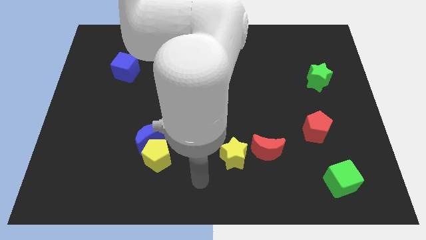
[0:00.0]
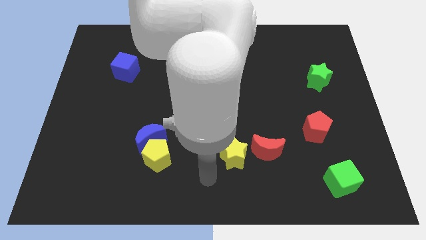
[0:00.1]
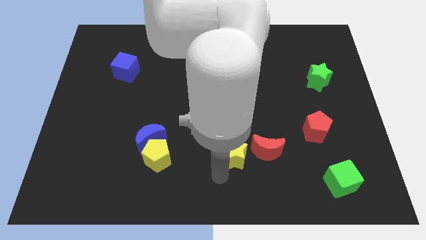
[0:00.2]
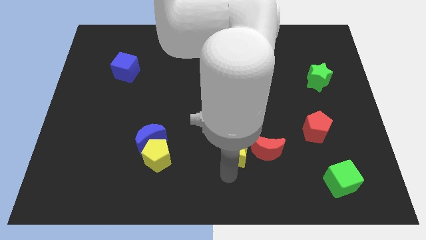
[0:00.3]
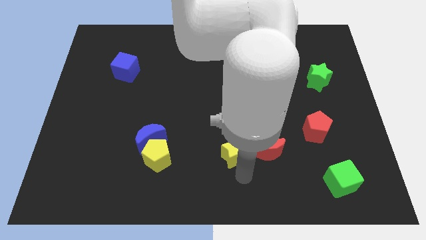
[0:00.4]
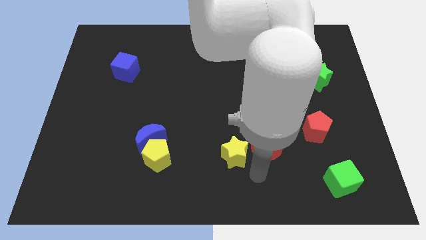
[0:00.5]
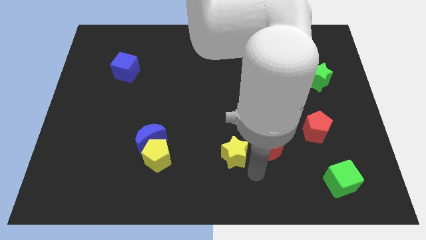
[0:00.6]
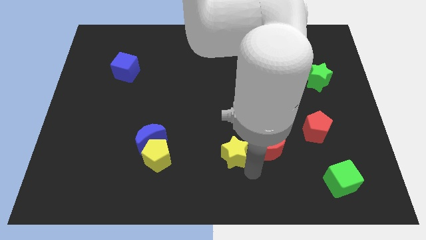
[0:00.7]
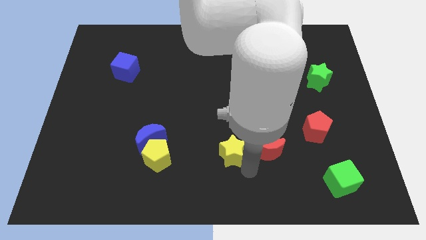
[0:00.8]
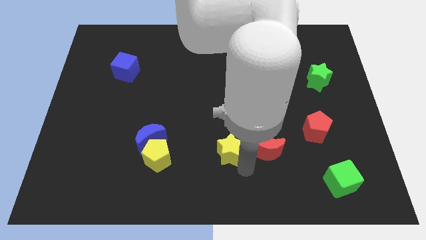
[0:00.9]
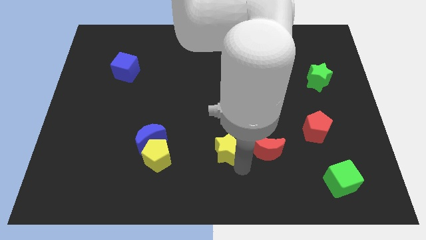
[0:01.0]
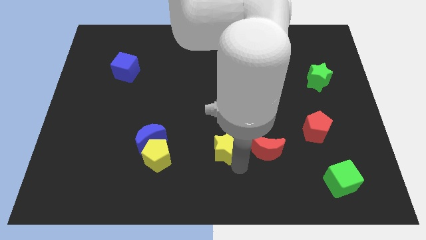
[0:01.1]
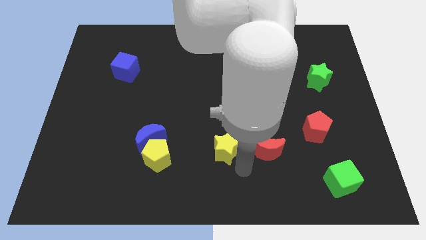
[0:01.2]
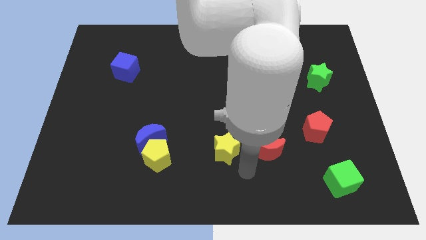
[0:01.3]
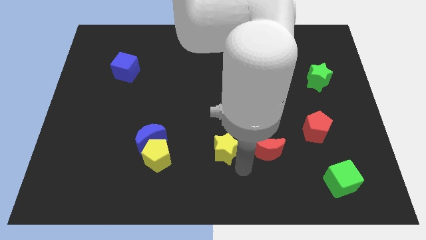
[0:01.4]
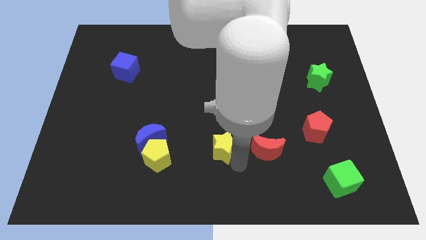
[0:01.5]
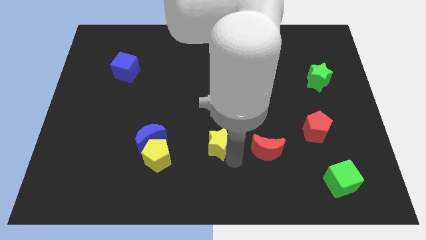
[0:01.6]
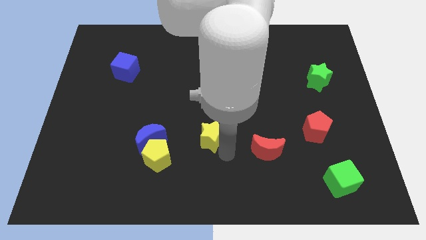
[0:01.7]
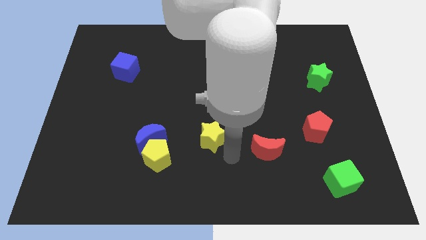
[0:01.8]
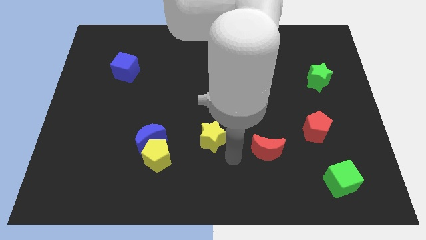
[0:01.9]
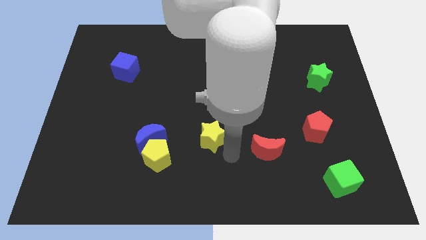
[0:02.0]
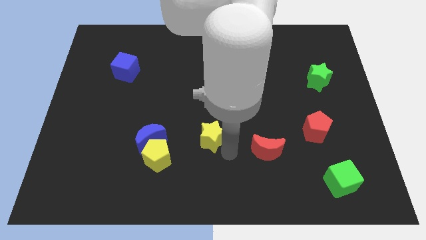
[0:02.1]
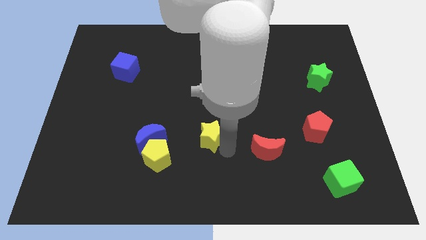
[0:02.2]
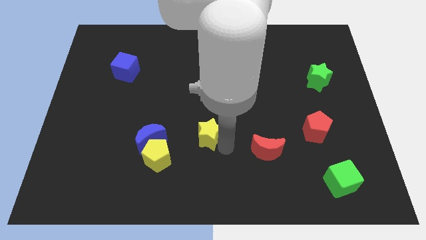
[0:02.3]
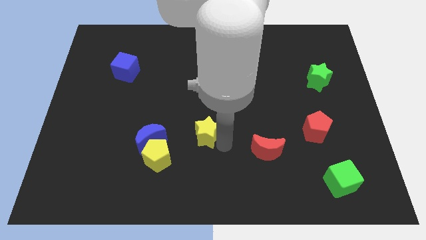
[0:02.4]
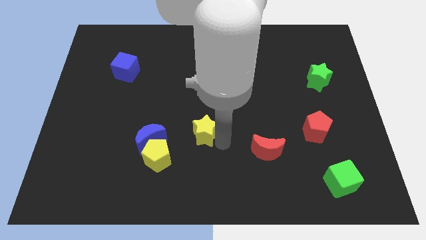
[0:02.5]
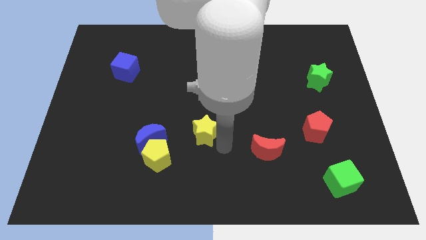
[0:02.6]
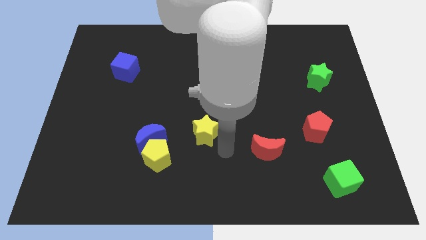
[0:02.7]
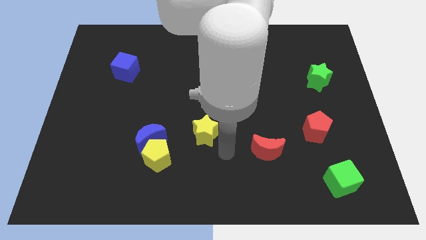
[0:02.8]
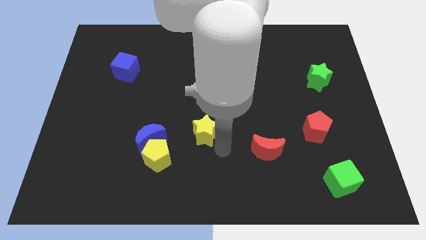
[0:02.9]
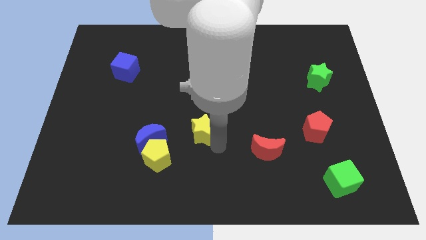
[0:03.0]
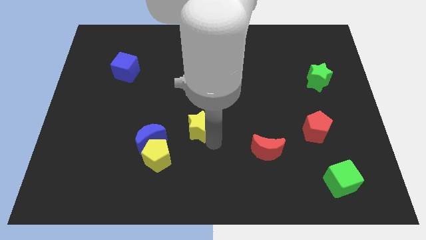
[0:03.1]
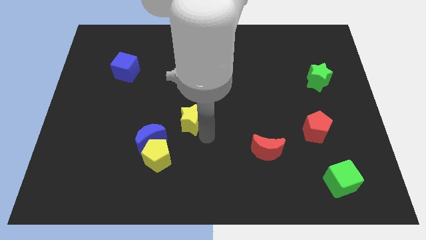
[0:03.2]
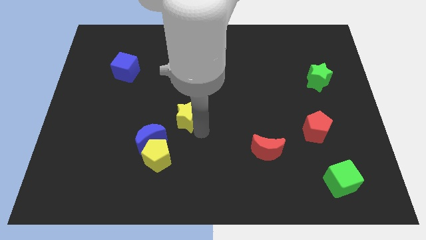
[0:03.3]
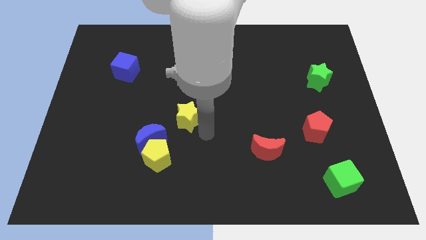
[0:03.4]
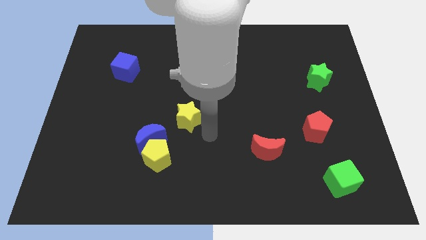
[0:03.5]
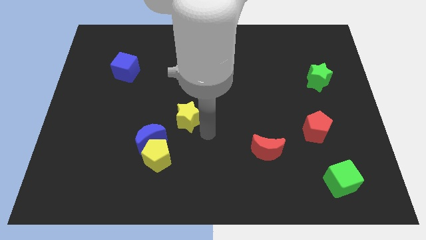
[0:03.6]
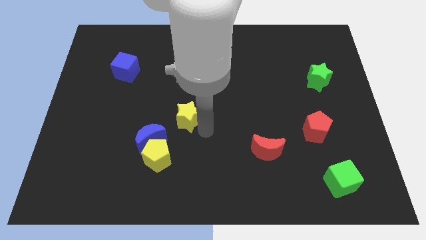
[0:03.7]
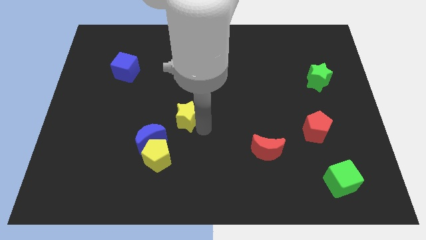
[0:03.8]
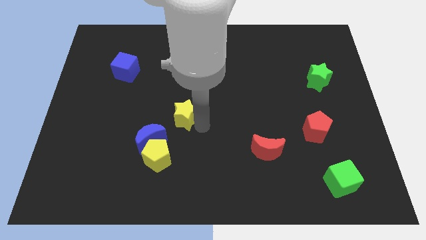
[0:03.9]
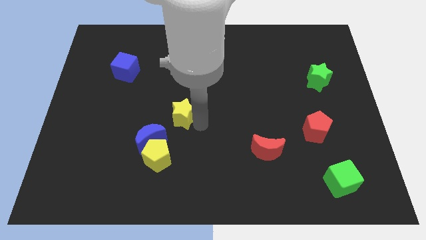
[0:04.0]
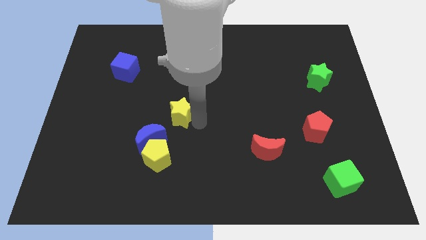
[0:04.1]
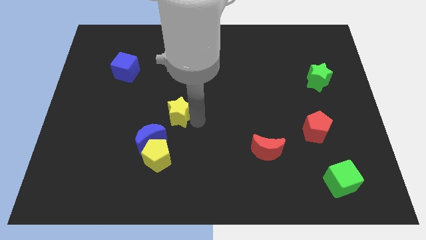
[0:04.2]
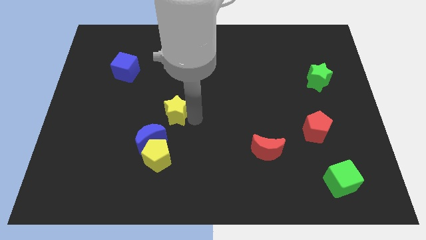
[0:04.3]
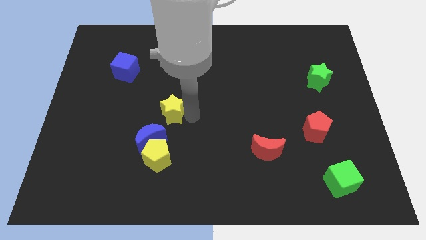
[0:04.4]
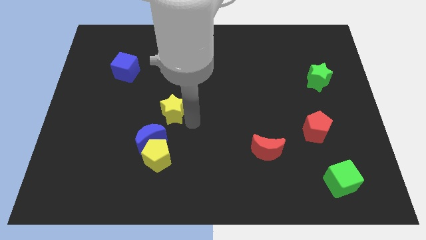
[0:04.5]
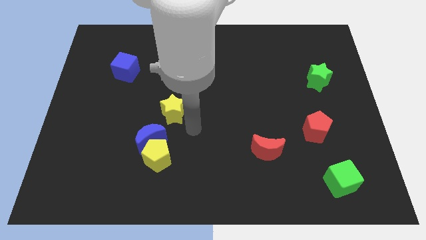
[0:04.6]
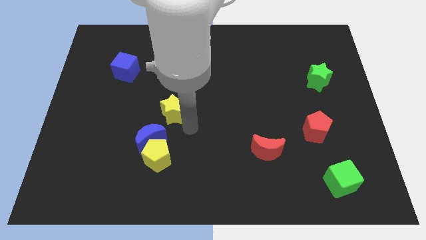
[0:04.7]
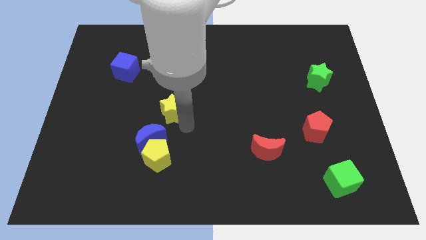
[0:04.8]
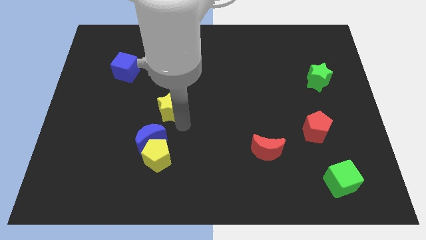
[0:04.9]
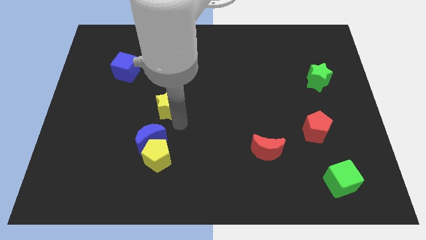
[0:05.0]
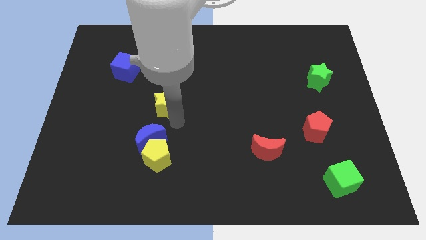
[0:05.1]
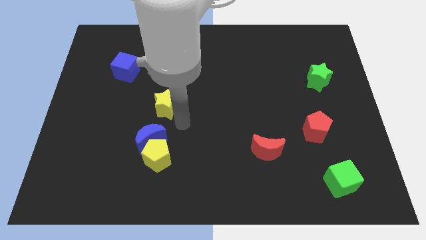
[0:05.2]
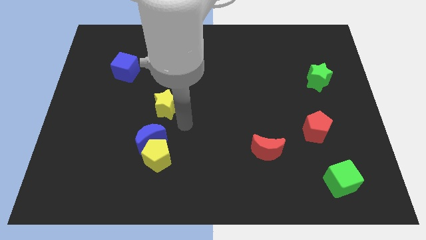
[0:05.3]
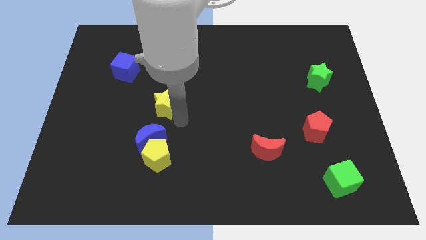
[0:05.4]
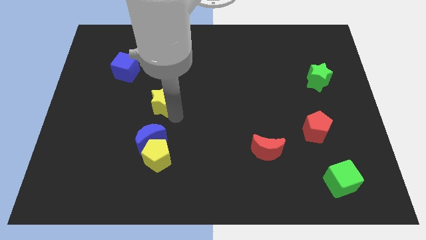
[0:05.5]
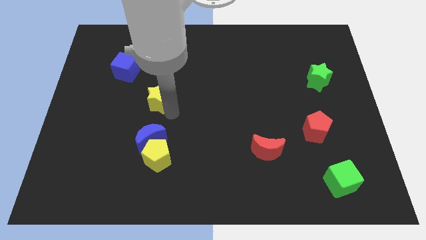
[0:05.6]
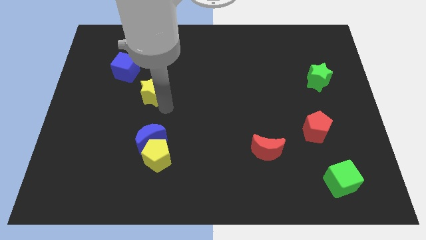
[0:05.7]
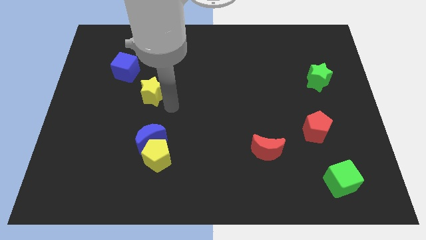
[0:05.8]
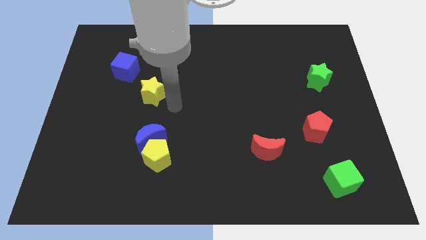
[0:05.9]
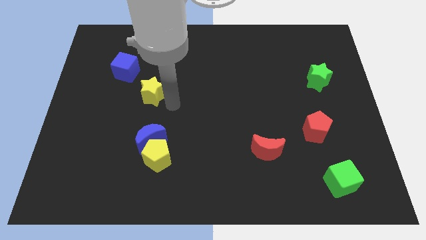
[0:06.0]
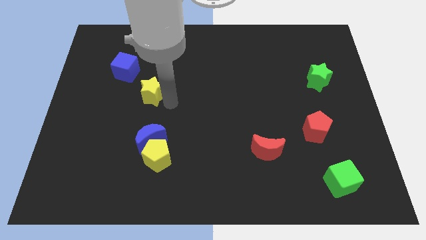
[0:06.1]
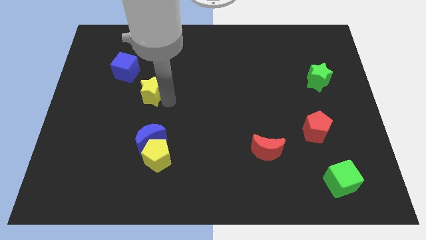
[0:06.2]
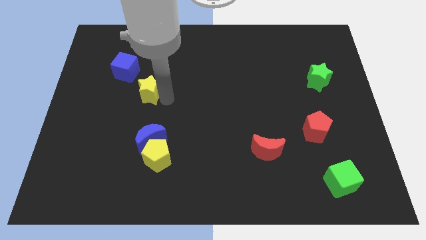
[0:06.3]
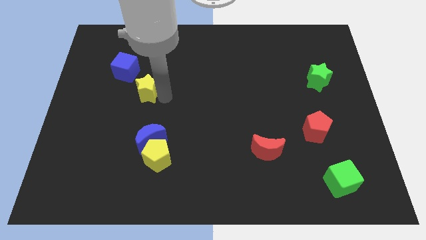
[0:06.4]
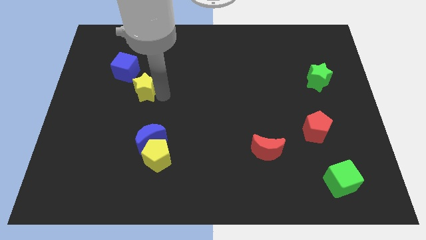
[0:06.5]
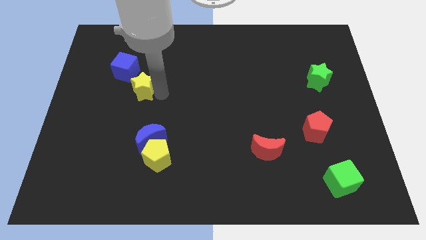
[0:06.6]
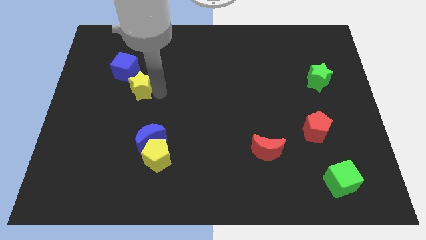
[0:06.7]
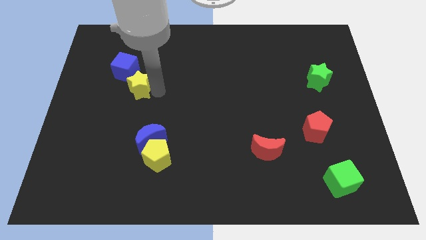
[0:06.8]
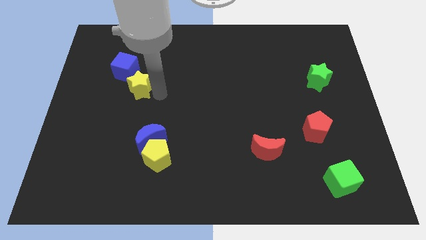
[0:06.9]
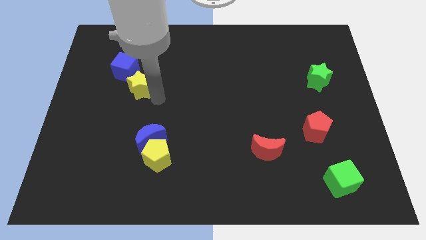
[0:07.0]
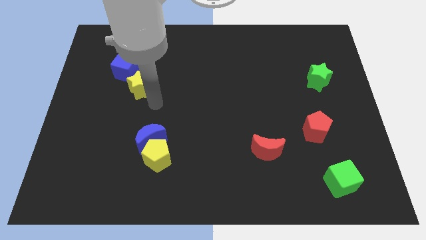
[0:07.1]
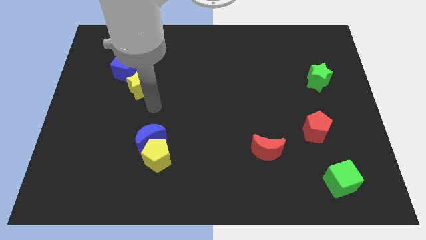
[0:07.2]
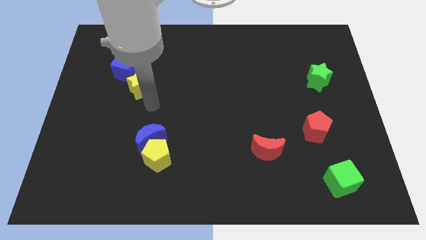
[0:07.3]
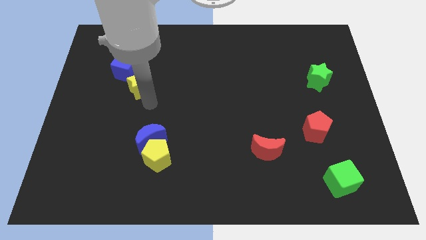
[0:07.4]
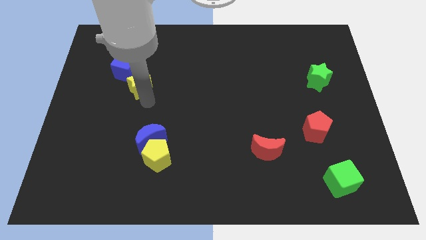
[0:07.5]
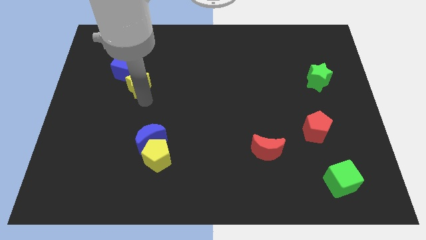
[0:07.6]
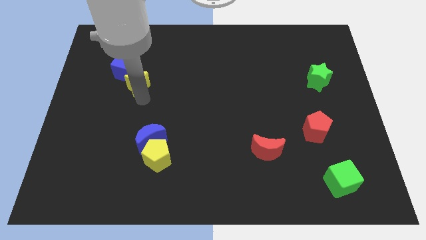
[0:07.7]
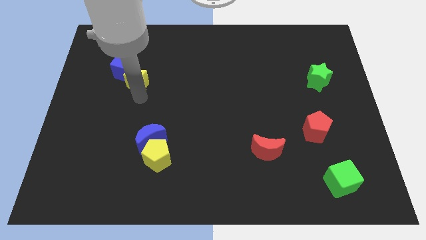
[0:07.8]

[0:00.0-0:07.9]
move the yellow star towards the blue cube

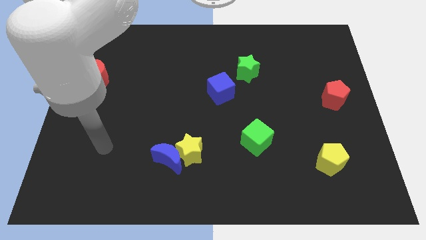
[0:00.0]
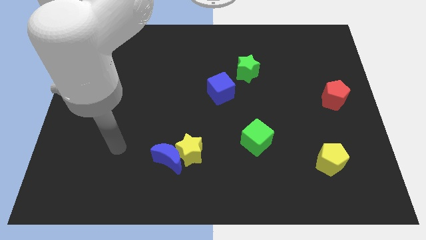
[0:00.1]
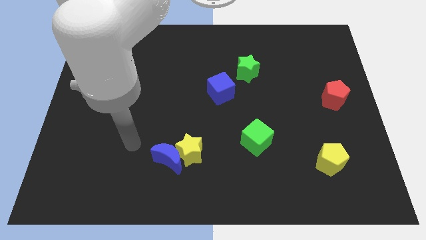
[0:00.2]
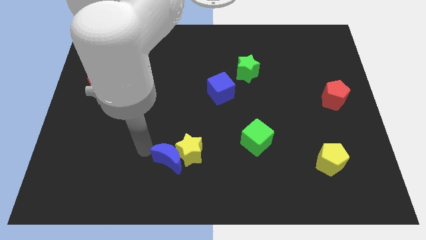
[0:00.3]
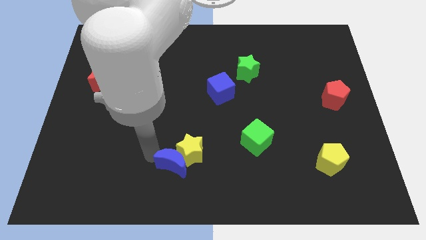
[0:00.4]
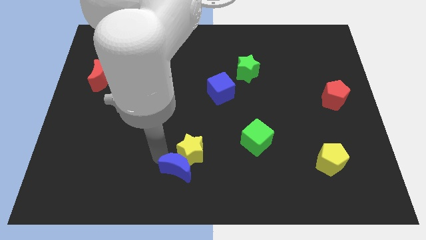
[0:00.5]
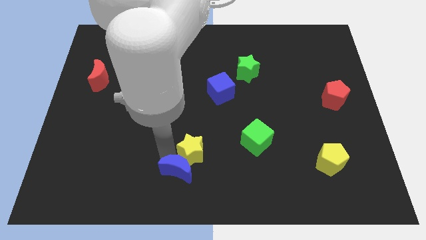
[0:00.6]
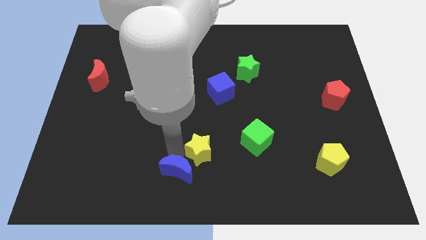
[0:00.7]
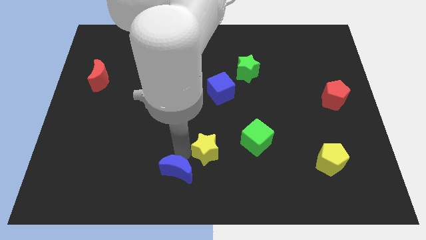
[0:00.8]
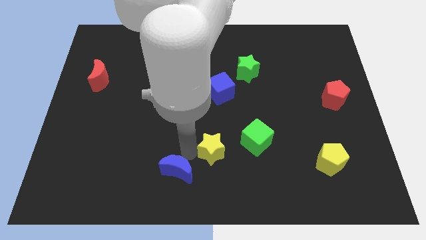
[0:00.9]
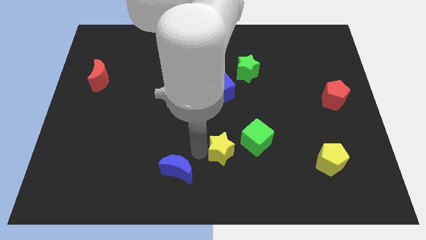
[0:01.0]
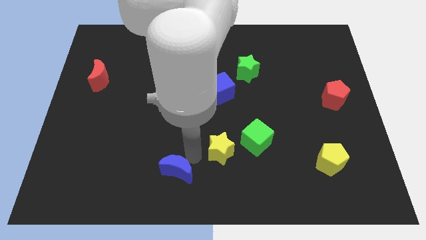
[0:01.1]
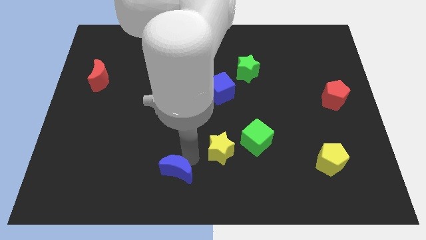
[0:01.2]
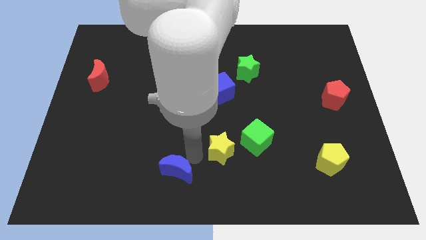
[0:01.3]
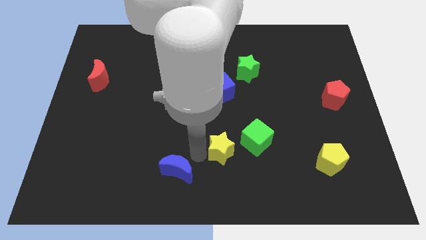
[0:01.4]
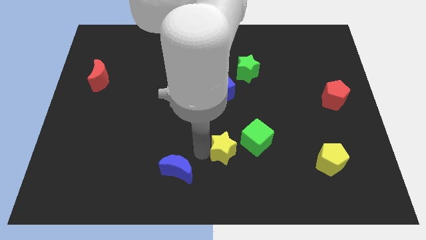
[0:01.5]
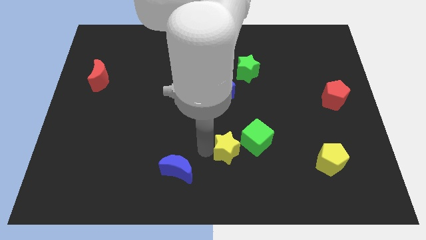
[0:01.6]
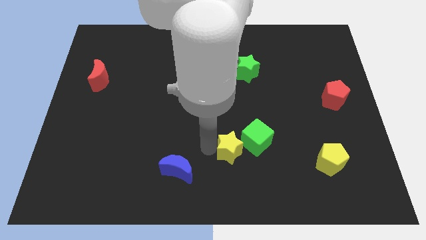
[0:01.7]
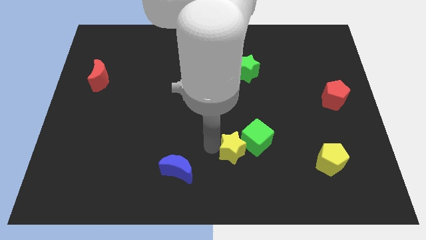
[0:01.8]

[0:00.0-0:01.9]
push the yellow star close to the green cube
